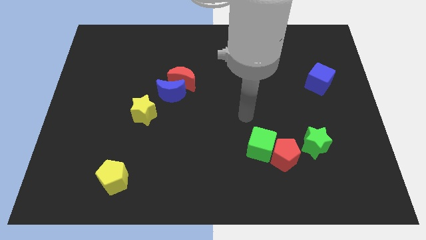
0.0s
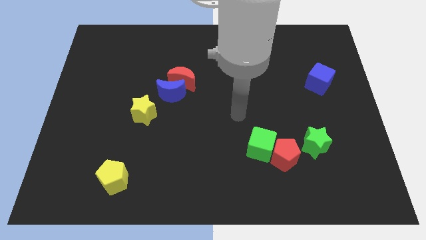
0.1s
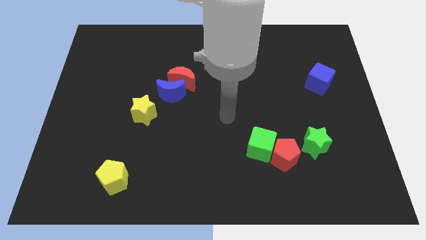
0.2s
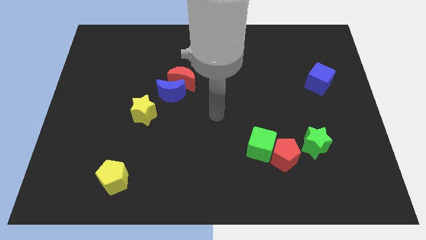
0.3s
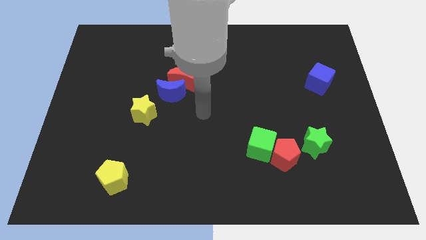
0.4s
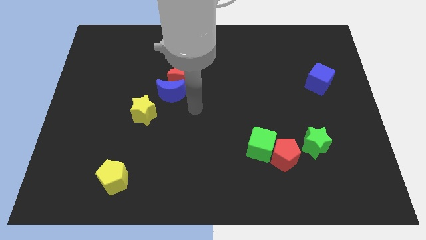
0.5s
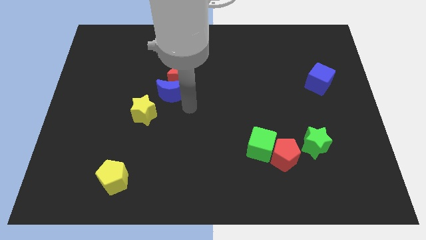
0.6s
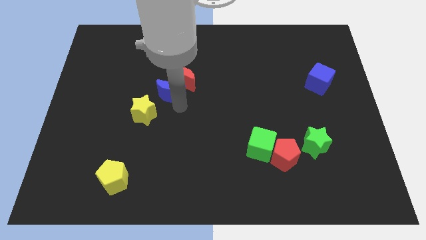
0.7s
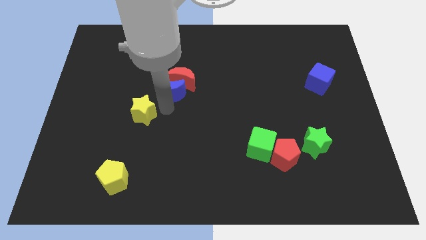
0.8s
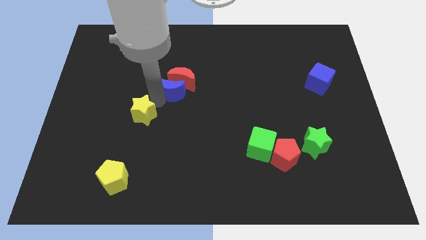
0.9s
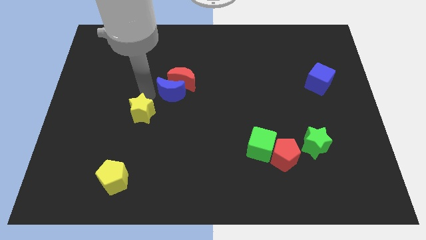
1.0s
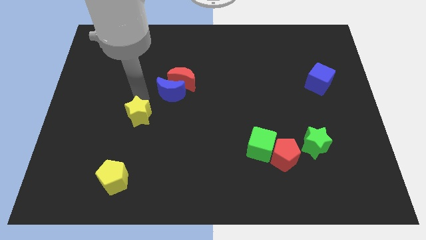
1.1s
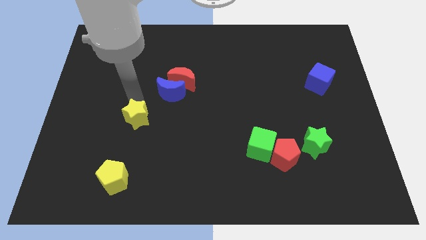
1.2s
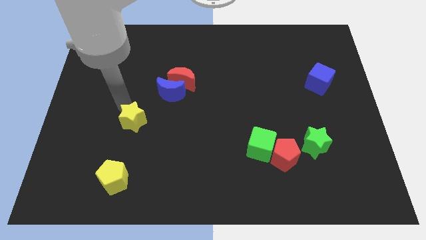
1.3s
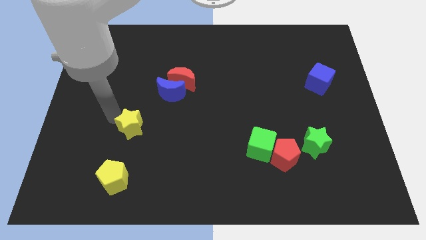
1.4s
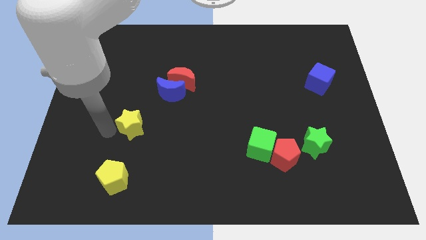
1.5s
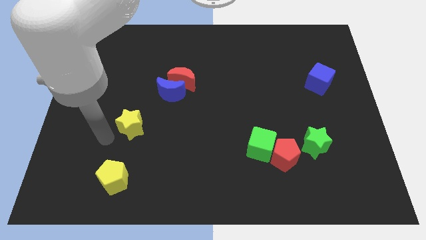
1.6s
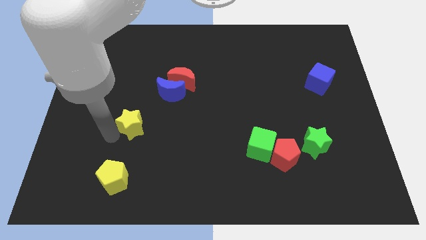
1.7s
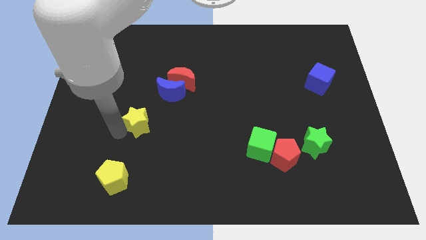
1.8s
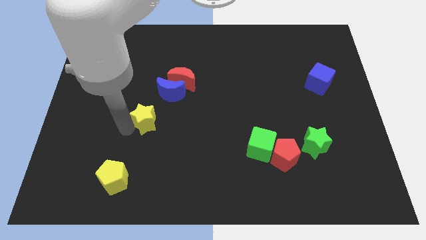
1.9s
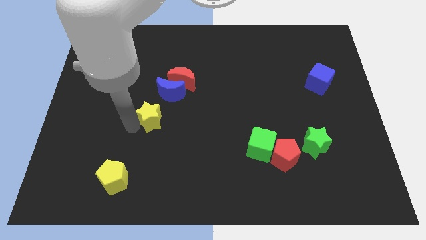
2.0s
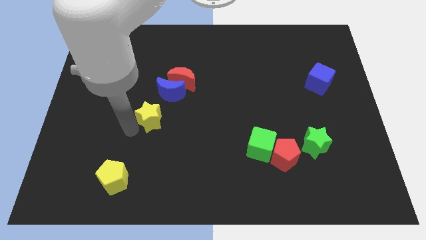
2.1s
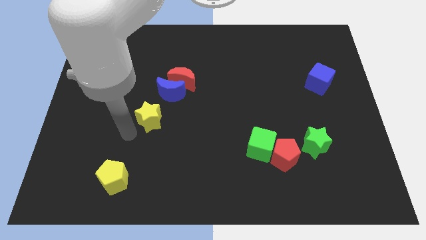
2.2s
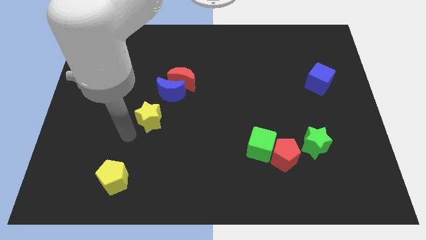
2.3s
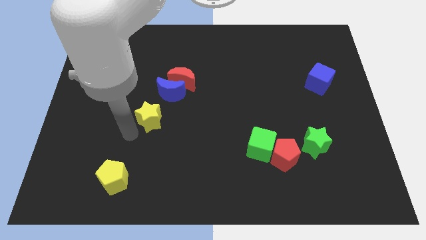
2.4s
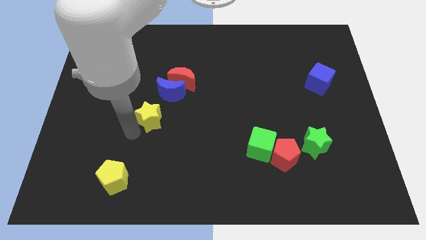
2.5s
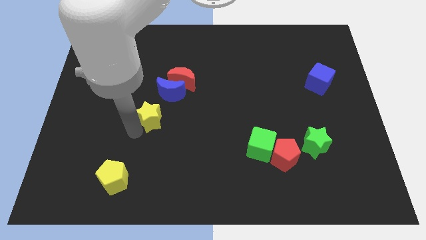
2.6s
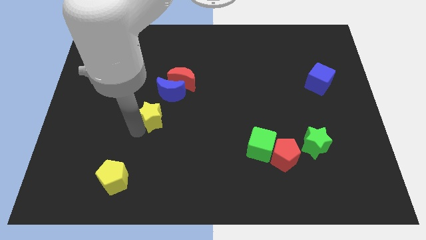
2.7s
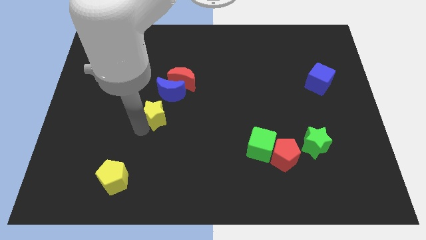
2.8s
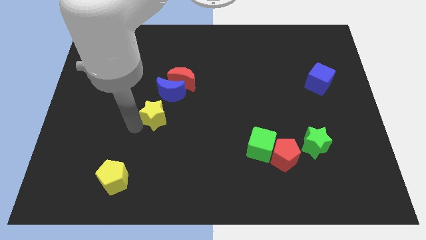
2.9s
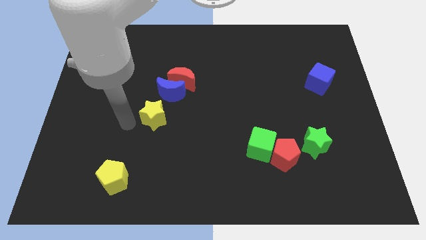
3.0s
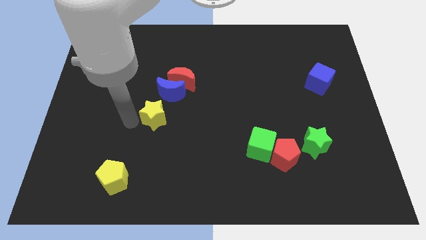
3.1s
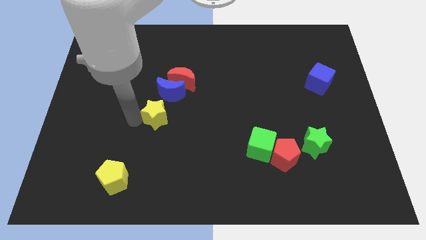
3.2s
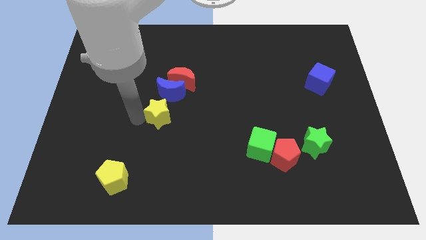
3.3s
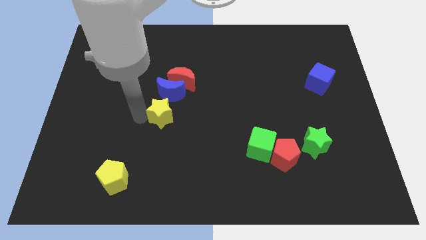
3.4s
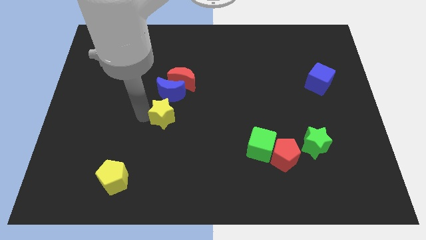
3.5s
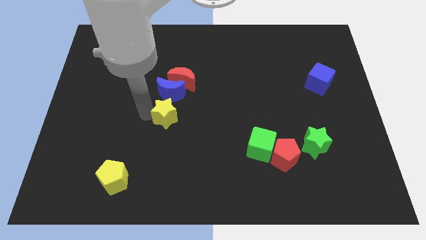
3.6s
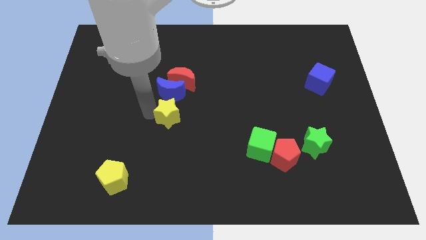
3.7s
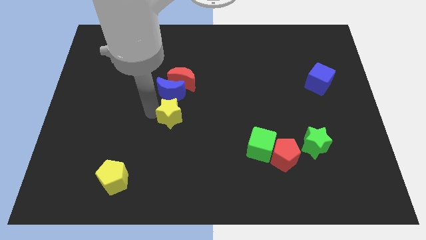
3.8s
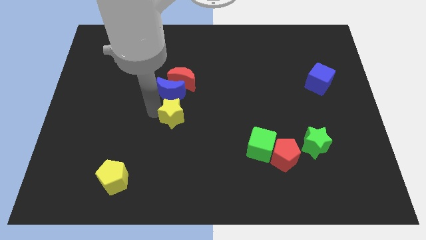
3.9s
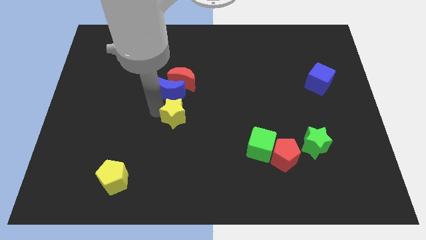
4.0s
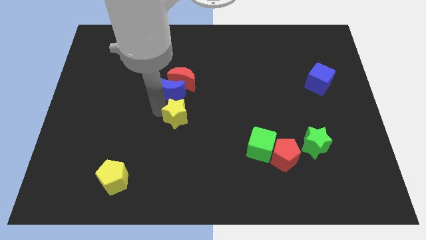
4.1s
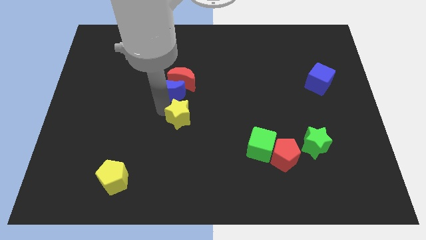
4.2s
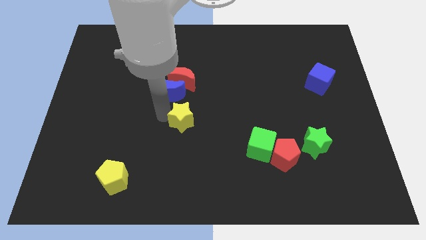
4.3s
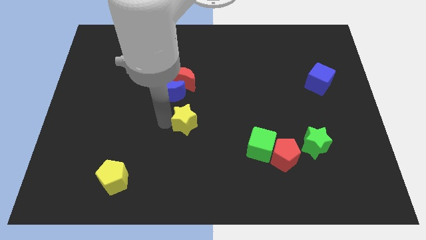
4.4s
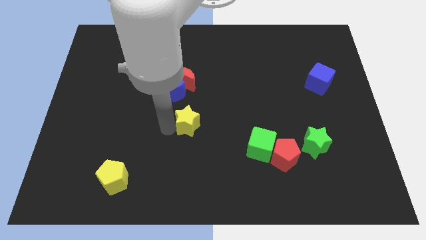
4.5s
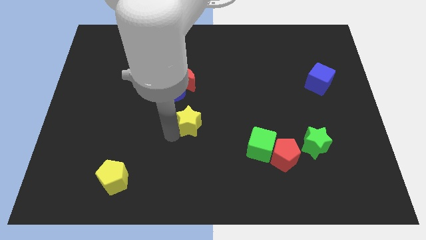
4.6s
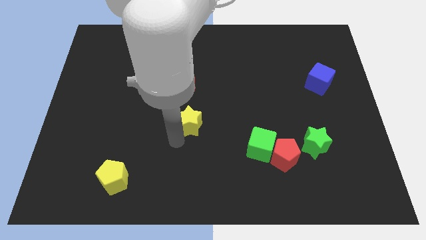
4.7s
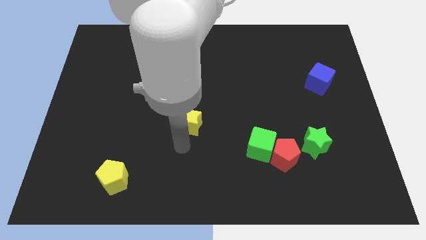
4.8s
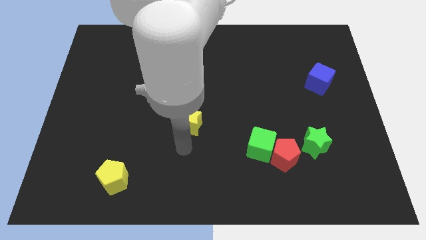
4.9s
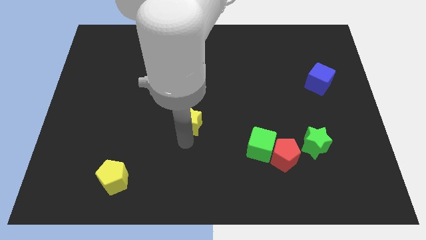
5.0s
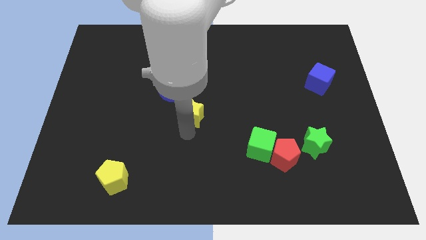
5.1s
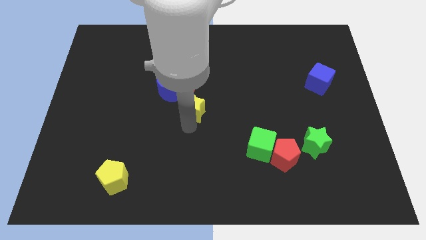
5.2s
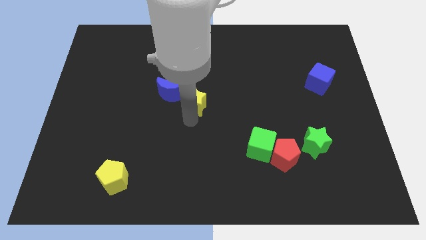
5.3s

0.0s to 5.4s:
push the yellow star a bit diagonally up and right

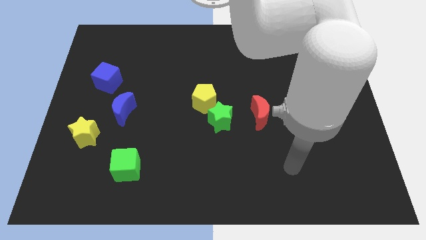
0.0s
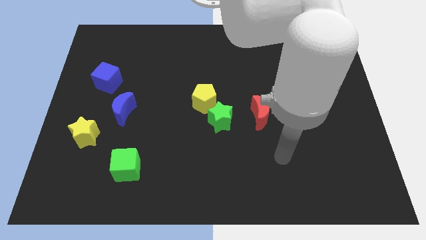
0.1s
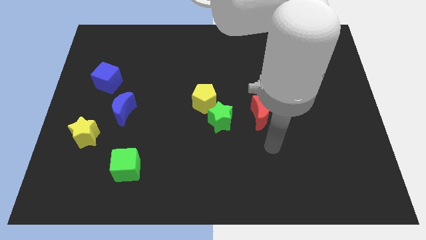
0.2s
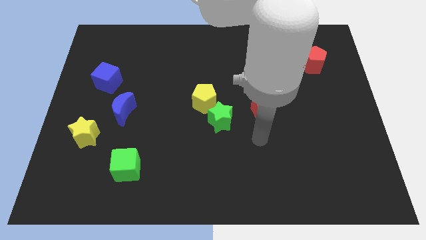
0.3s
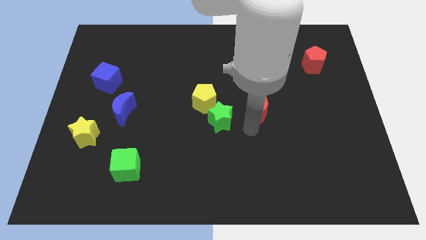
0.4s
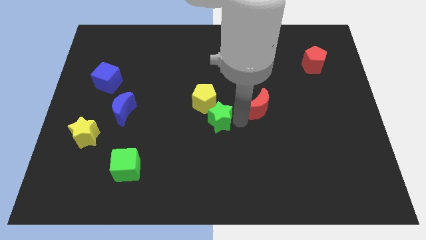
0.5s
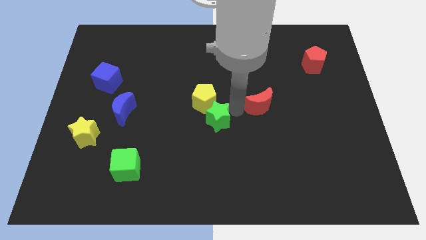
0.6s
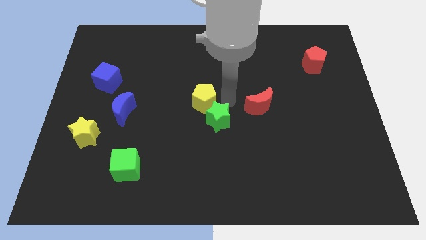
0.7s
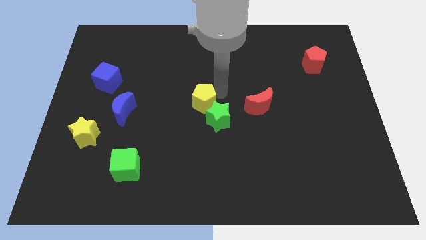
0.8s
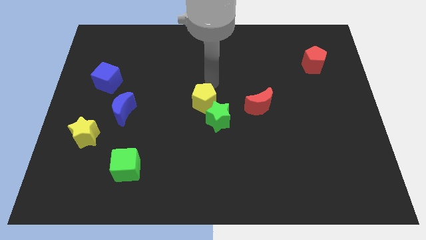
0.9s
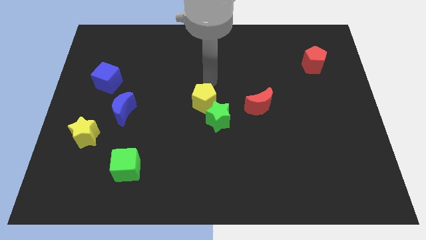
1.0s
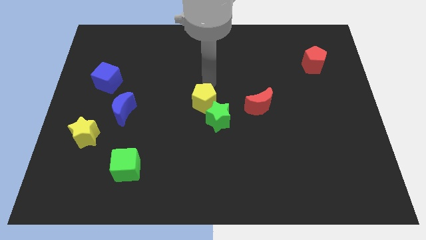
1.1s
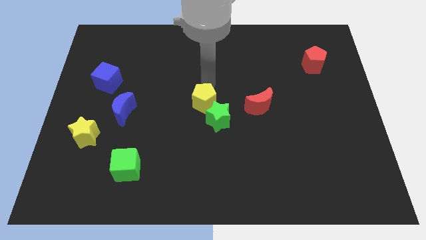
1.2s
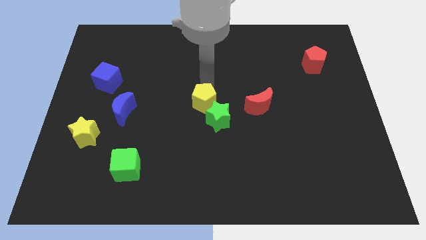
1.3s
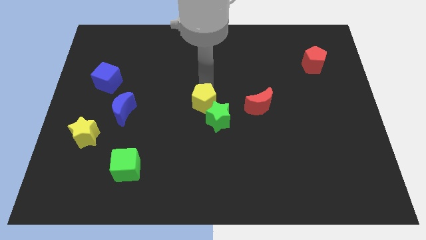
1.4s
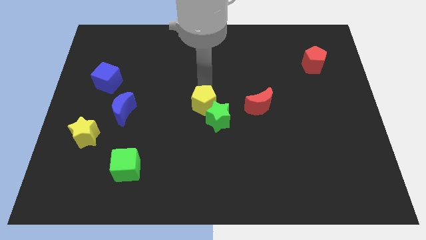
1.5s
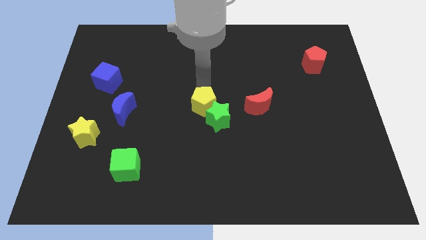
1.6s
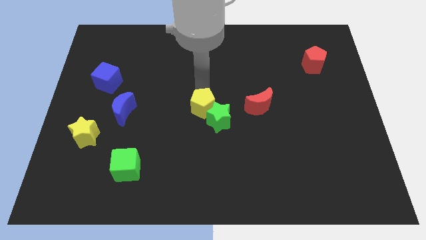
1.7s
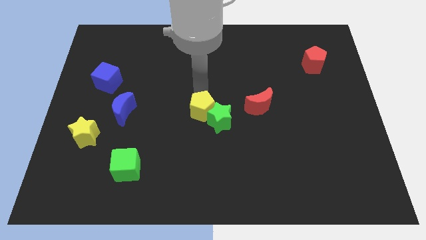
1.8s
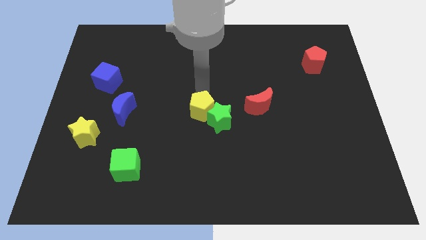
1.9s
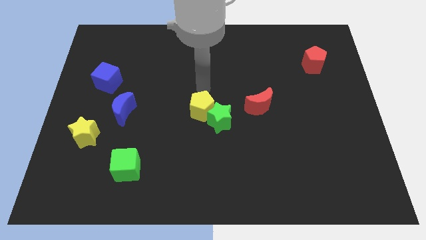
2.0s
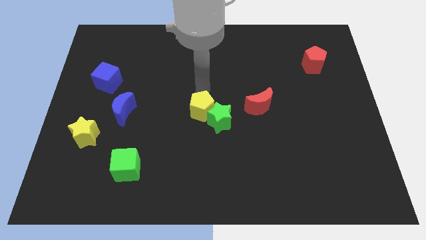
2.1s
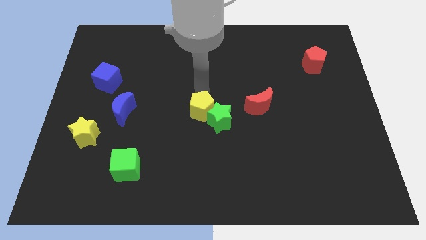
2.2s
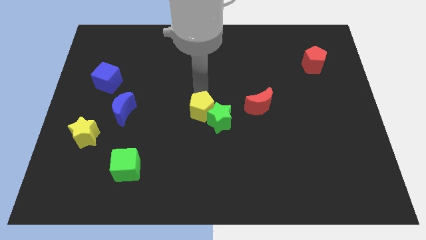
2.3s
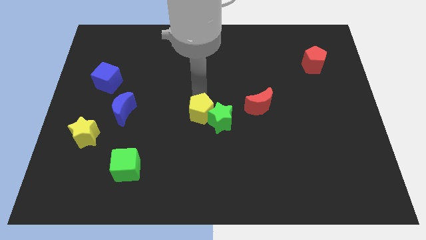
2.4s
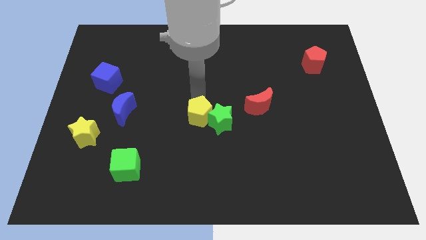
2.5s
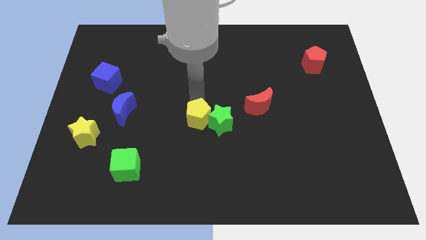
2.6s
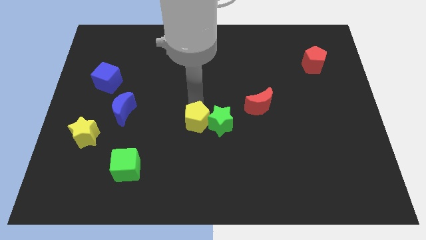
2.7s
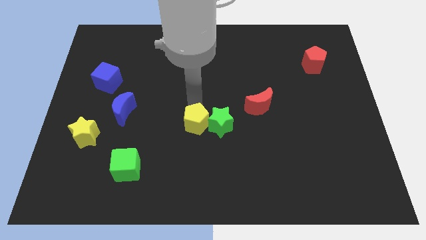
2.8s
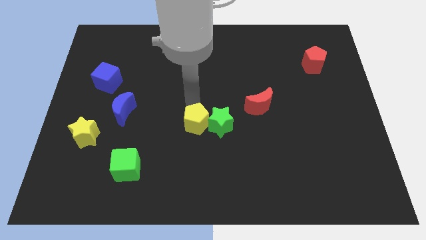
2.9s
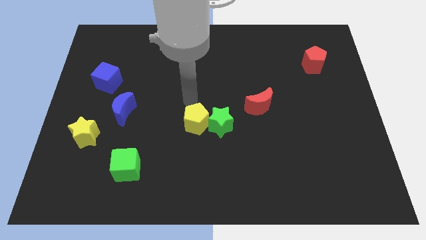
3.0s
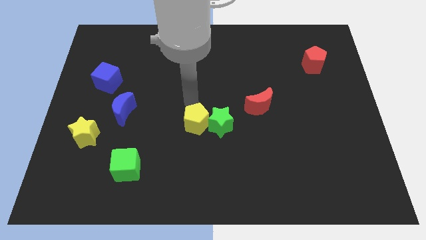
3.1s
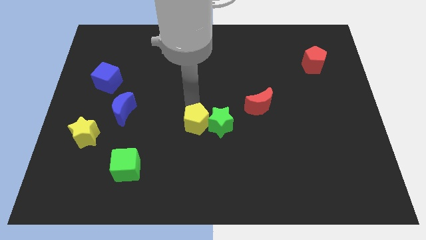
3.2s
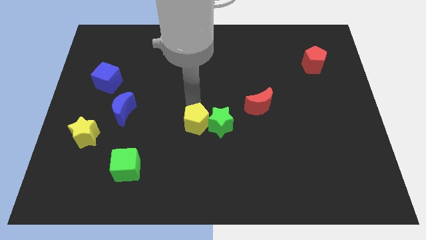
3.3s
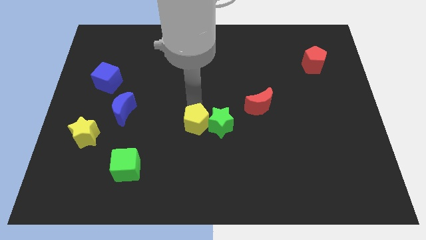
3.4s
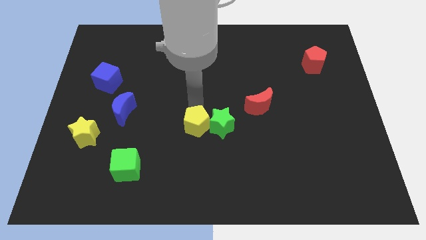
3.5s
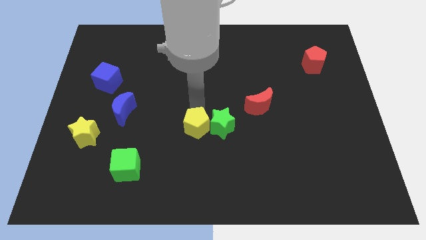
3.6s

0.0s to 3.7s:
move the yellow pentagon a bit down
